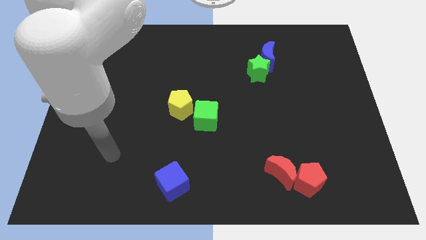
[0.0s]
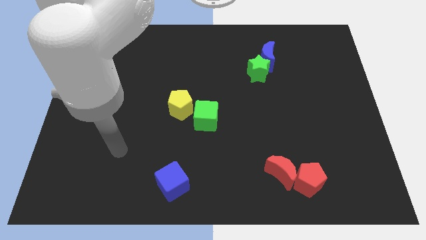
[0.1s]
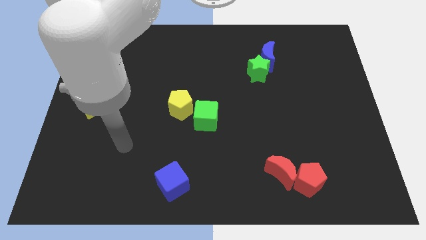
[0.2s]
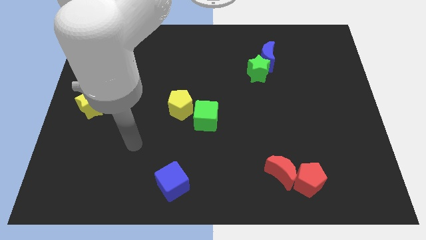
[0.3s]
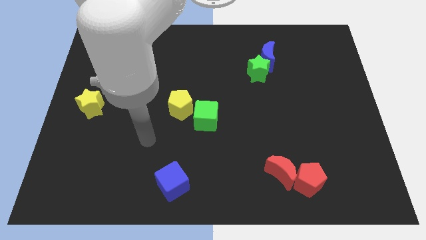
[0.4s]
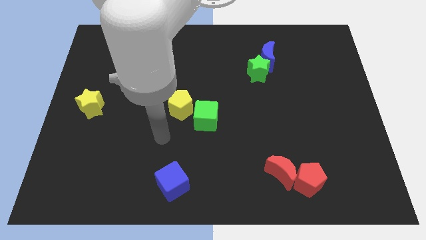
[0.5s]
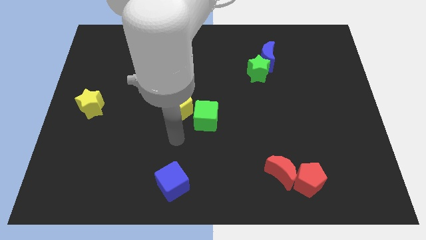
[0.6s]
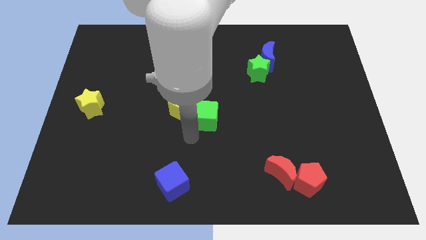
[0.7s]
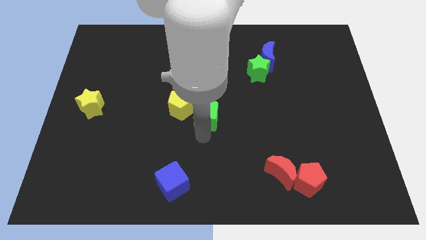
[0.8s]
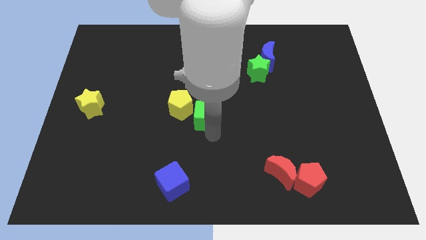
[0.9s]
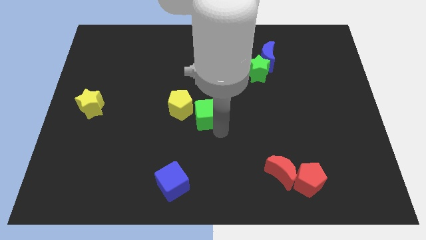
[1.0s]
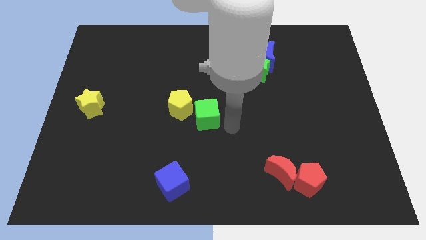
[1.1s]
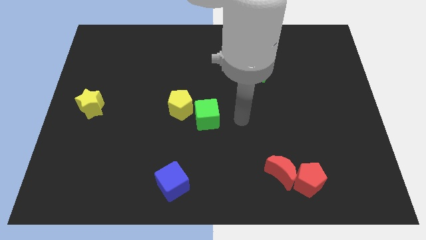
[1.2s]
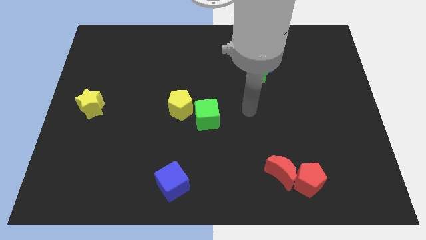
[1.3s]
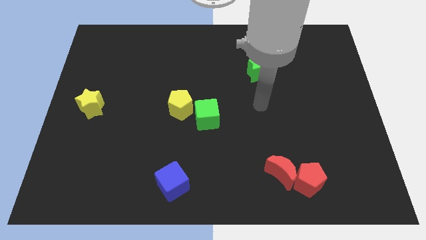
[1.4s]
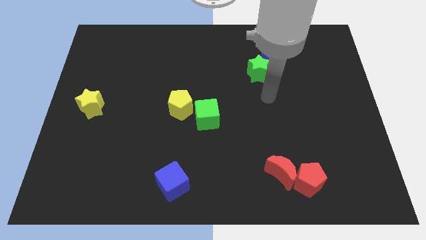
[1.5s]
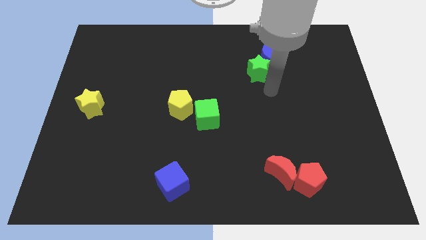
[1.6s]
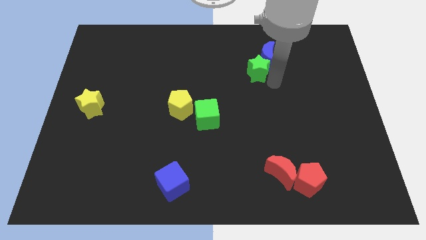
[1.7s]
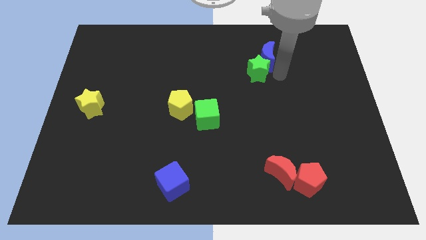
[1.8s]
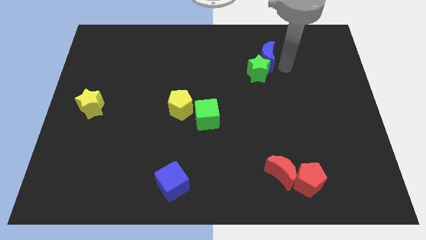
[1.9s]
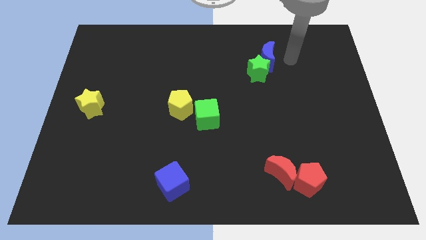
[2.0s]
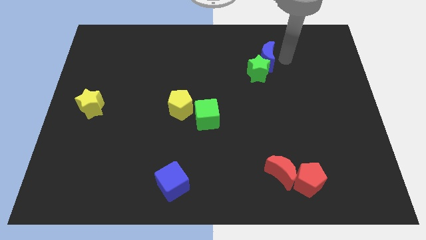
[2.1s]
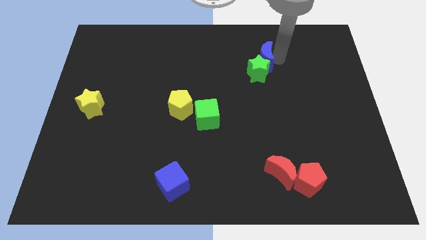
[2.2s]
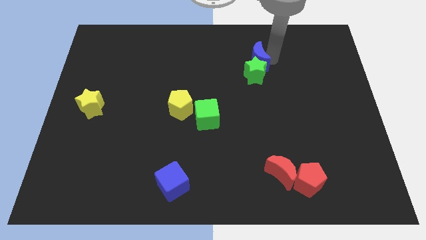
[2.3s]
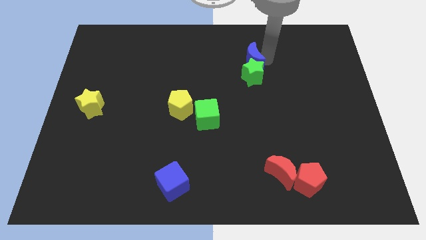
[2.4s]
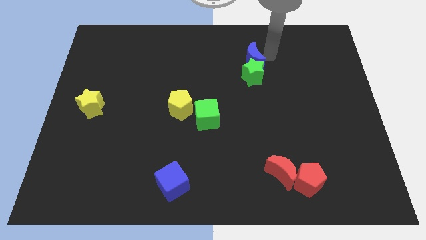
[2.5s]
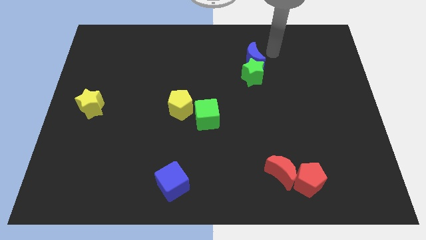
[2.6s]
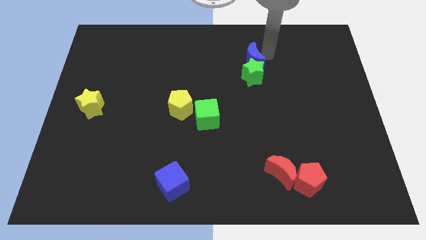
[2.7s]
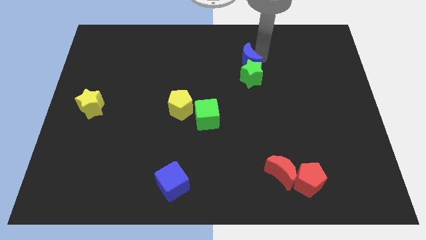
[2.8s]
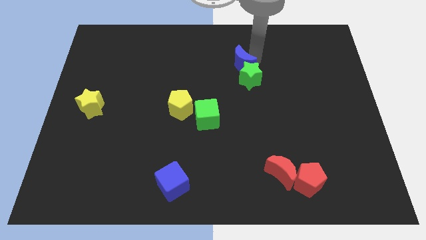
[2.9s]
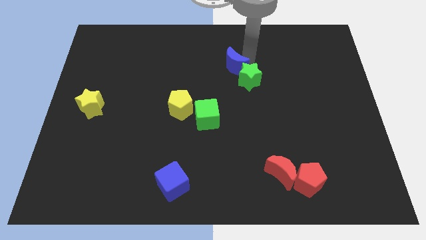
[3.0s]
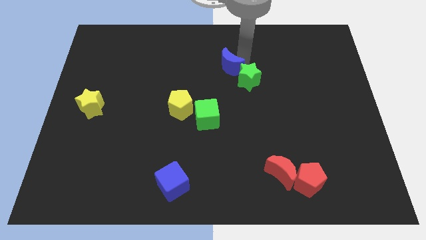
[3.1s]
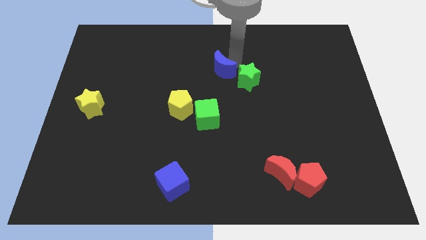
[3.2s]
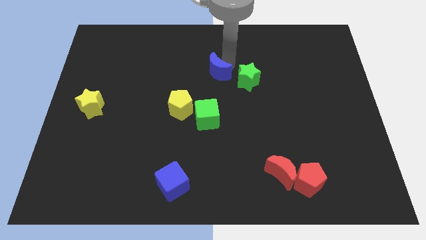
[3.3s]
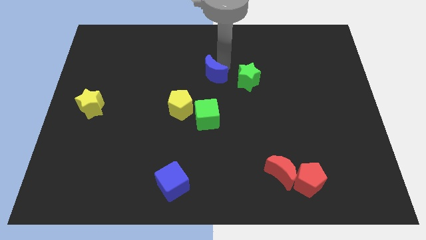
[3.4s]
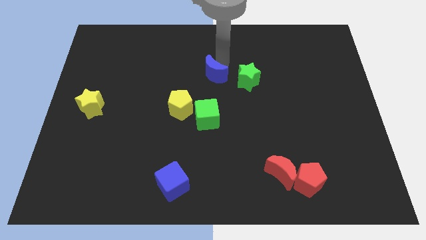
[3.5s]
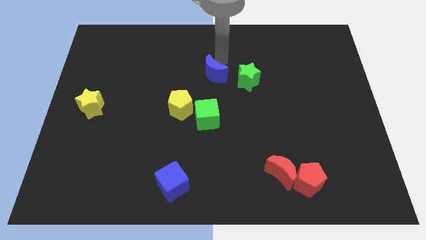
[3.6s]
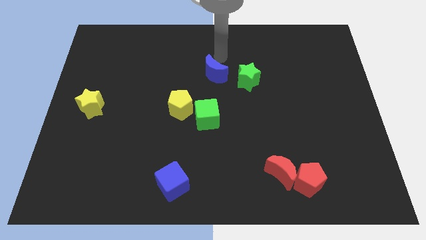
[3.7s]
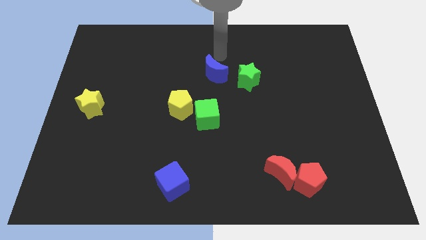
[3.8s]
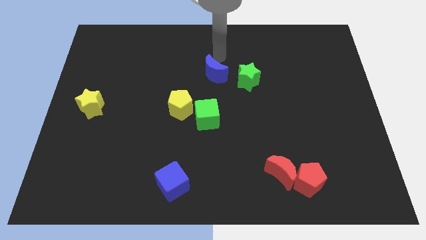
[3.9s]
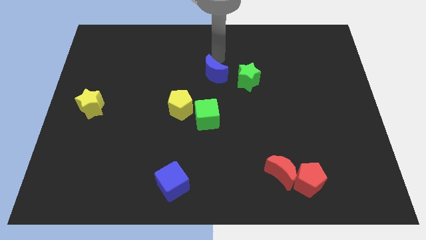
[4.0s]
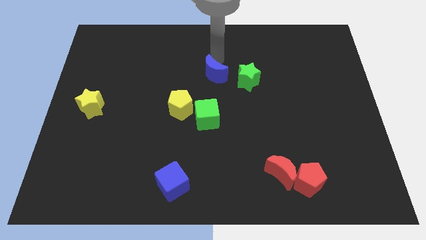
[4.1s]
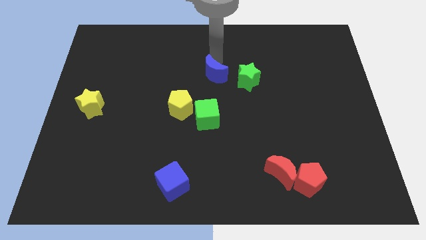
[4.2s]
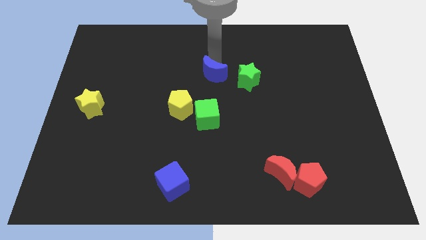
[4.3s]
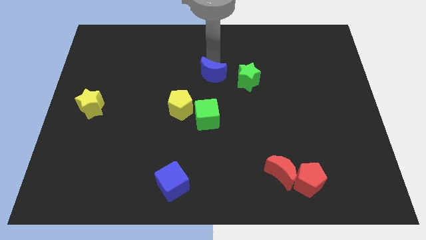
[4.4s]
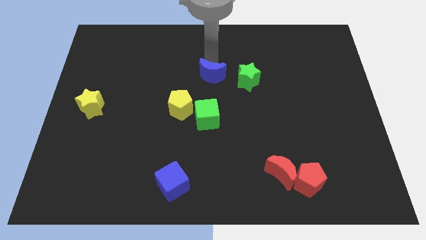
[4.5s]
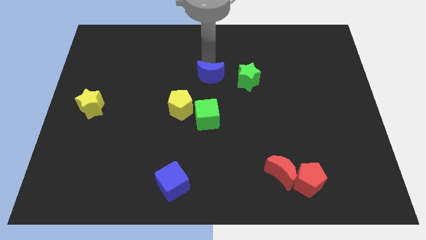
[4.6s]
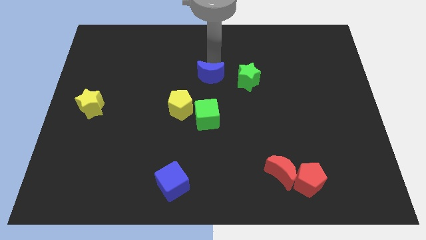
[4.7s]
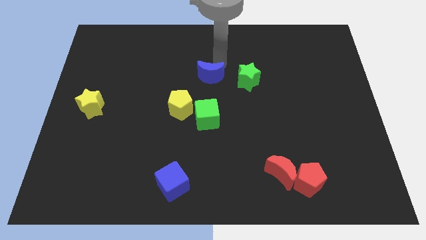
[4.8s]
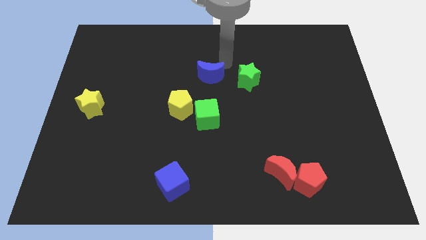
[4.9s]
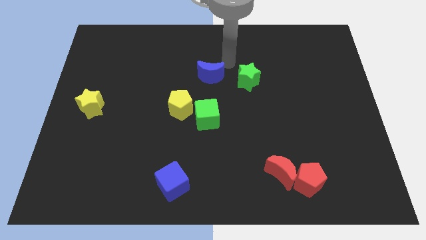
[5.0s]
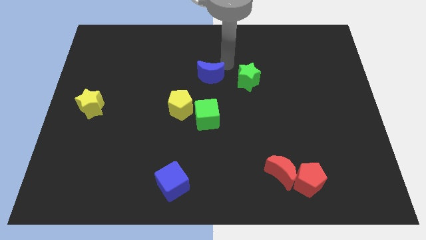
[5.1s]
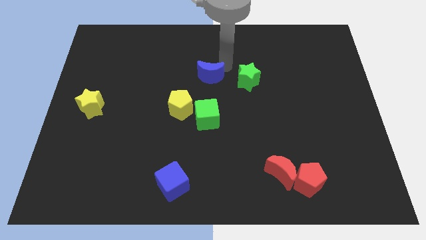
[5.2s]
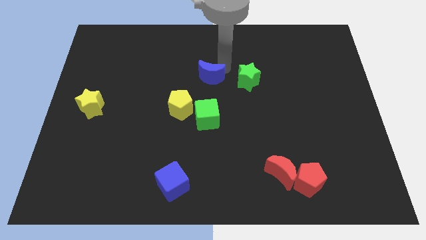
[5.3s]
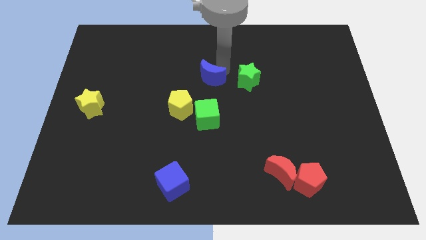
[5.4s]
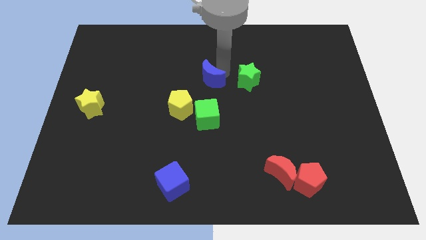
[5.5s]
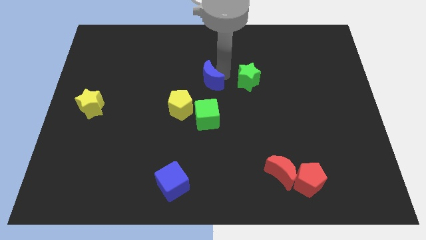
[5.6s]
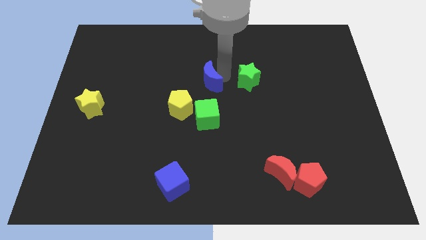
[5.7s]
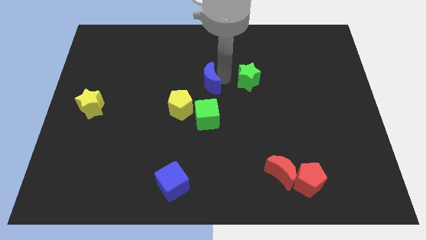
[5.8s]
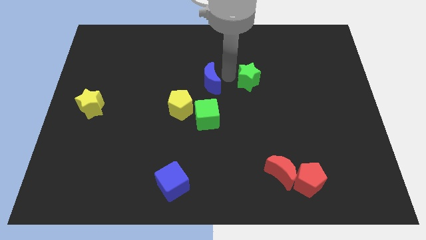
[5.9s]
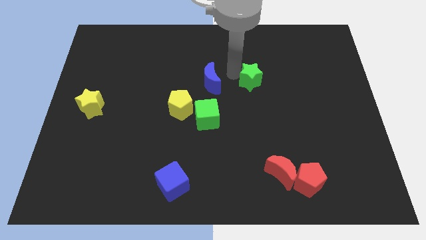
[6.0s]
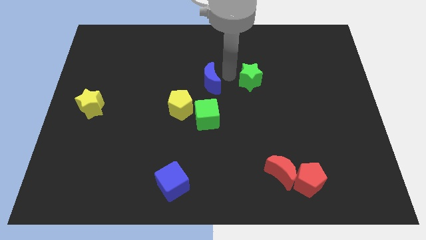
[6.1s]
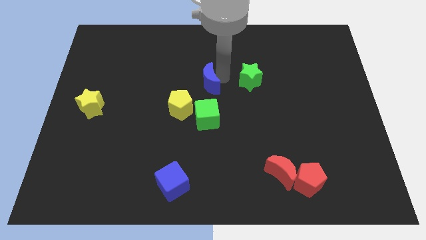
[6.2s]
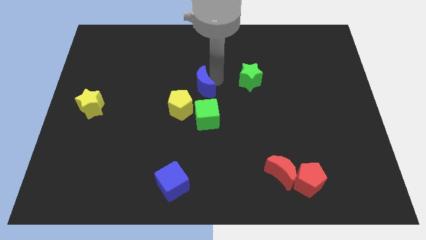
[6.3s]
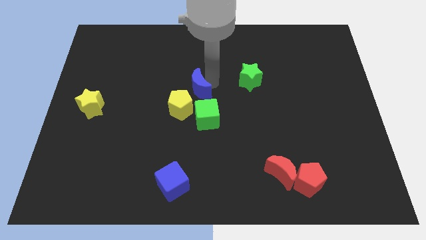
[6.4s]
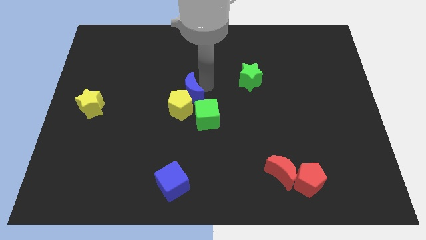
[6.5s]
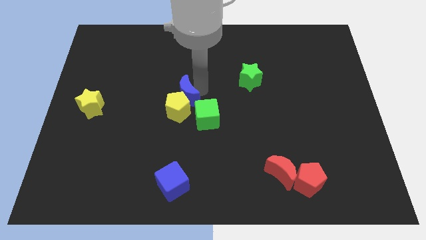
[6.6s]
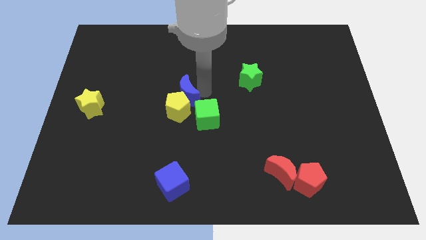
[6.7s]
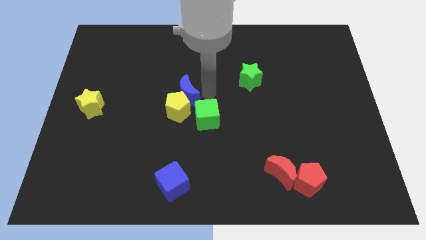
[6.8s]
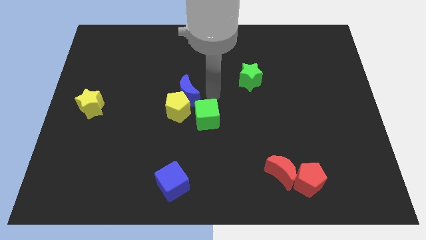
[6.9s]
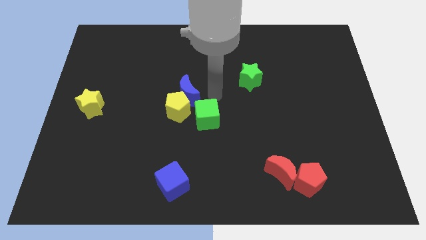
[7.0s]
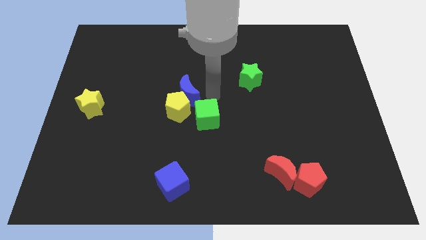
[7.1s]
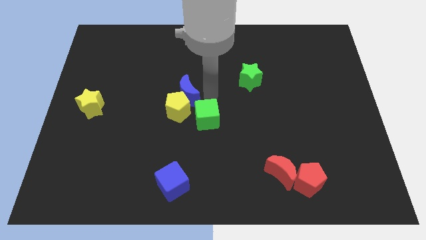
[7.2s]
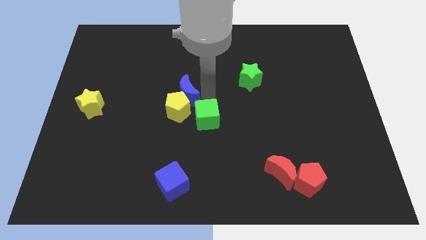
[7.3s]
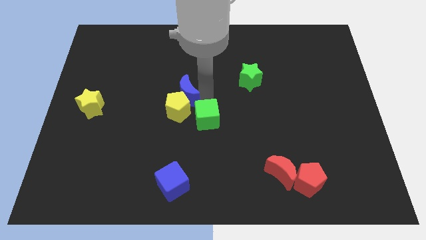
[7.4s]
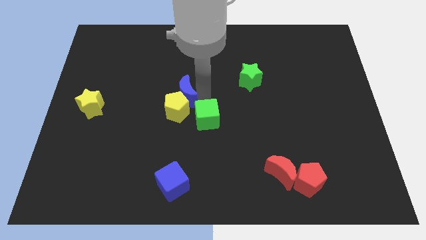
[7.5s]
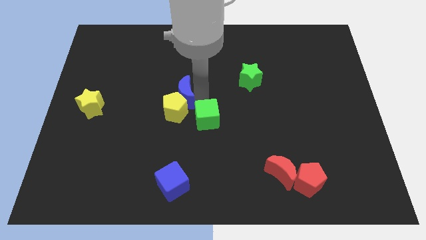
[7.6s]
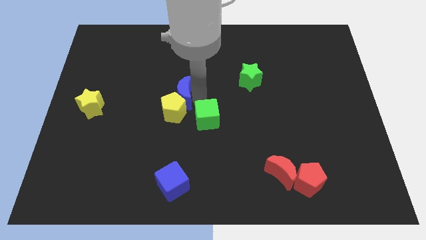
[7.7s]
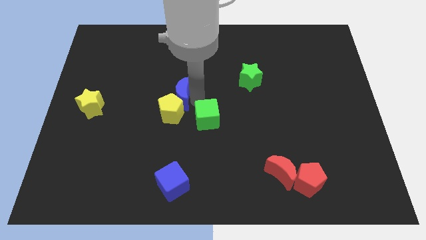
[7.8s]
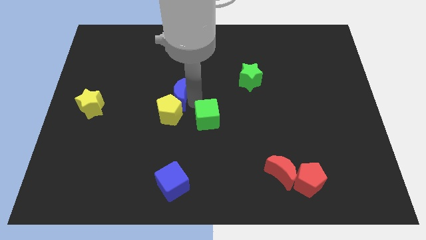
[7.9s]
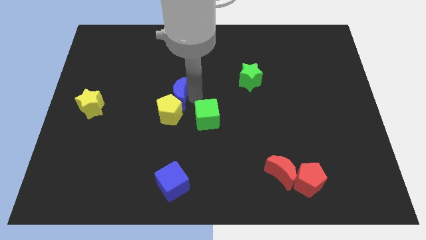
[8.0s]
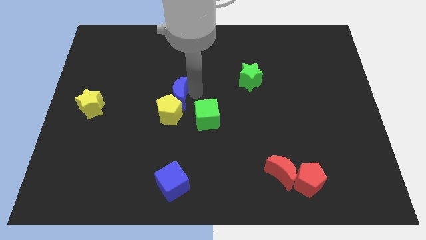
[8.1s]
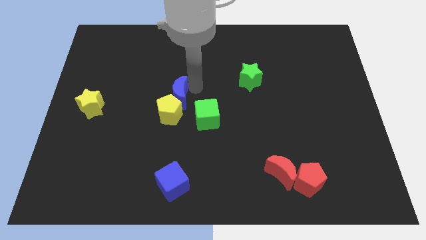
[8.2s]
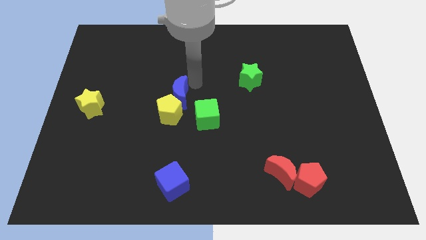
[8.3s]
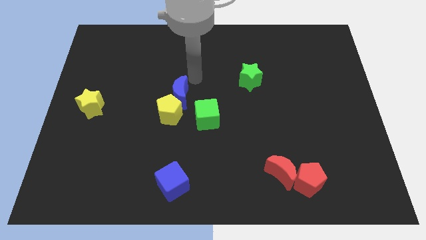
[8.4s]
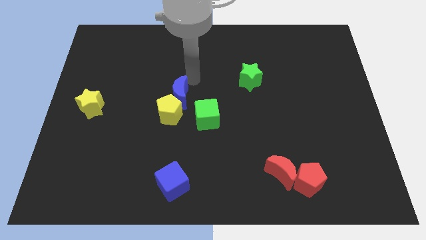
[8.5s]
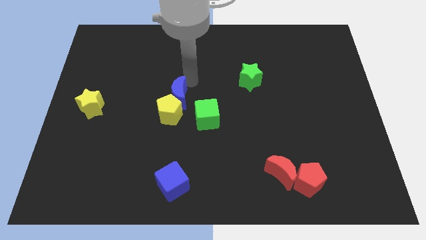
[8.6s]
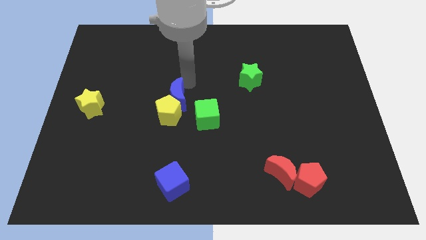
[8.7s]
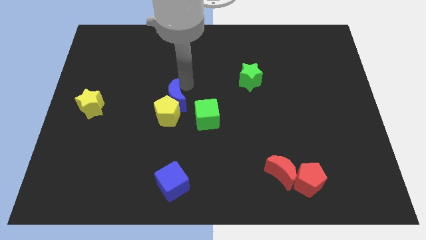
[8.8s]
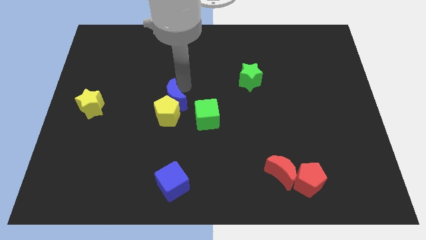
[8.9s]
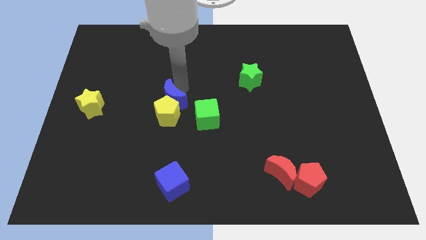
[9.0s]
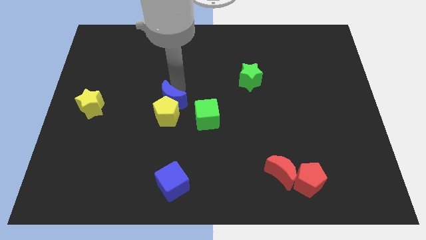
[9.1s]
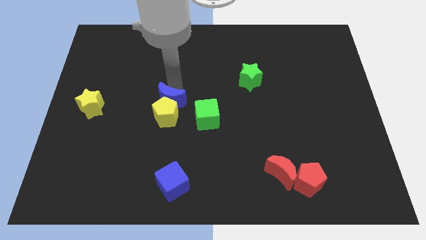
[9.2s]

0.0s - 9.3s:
put the blue moon just left of the green cube
